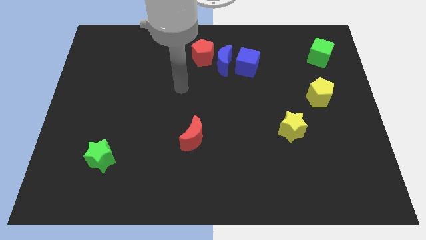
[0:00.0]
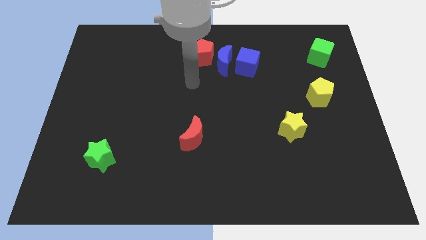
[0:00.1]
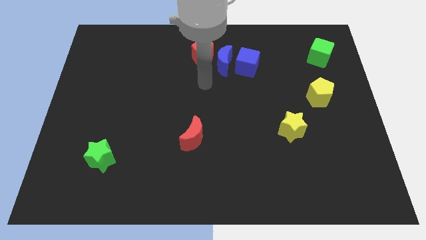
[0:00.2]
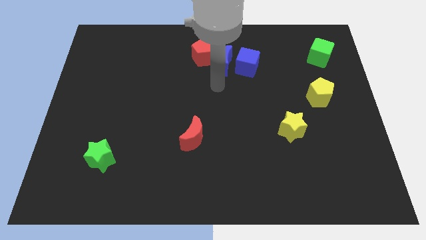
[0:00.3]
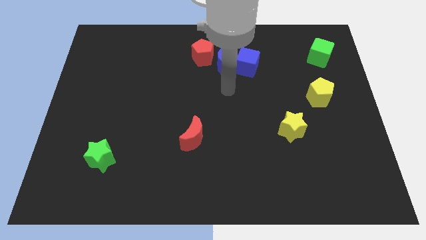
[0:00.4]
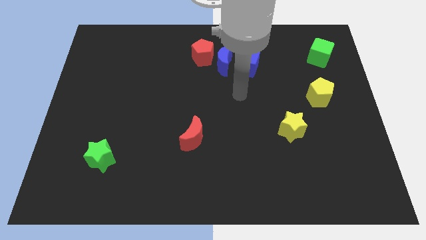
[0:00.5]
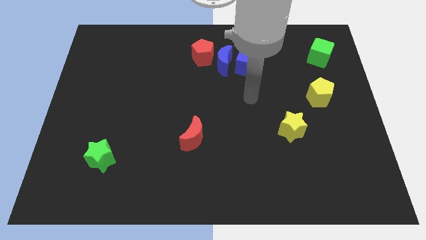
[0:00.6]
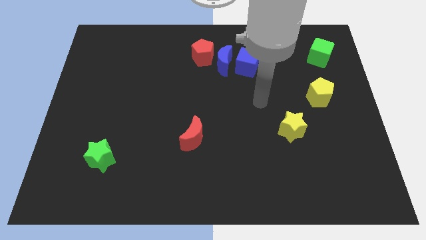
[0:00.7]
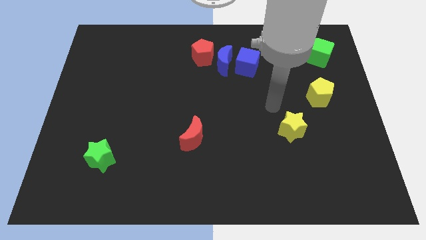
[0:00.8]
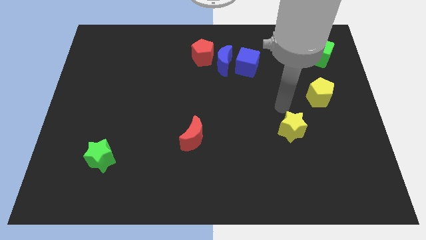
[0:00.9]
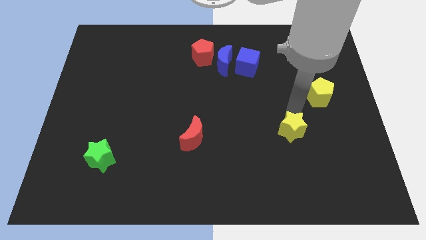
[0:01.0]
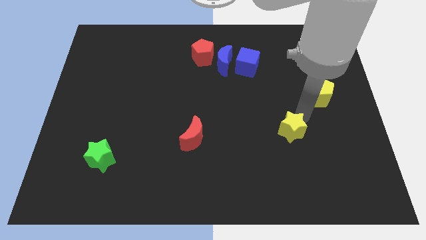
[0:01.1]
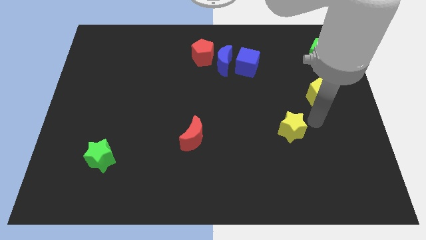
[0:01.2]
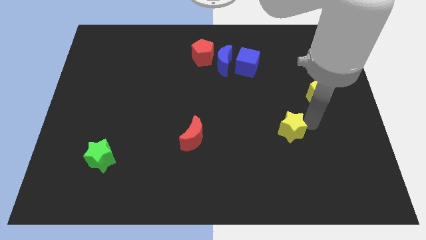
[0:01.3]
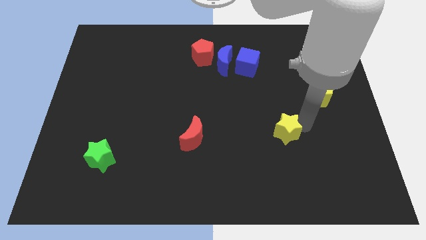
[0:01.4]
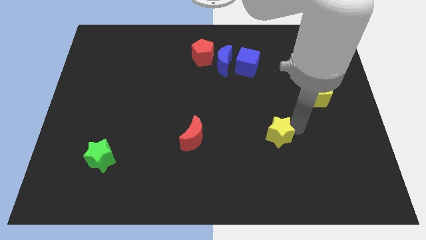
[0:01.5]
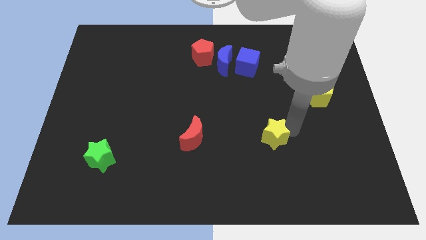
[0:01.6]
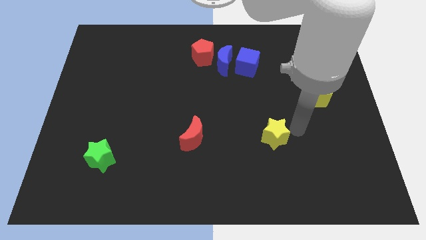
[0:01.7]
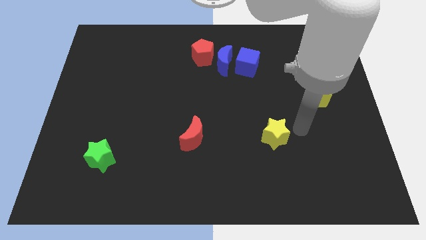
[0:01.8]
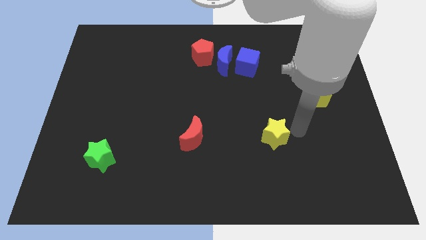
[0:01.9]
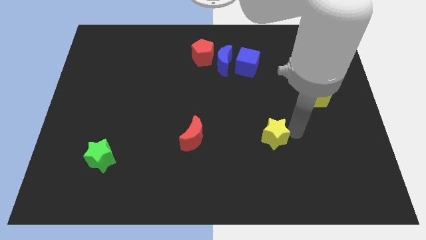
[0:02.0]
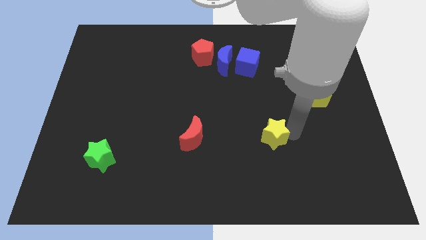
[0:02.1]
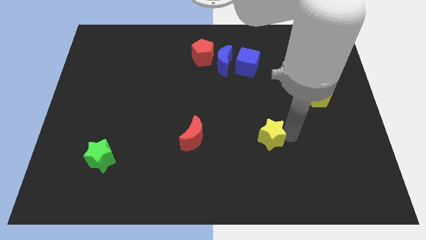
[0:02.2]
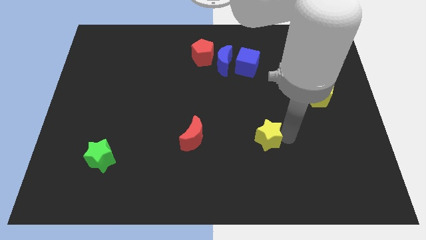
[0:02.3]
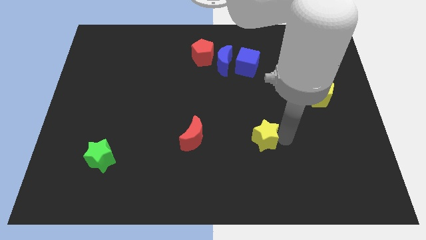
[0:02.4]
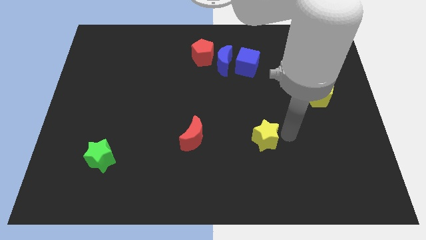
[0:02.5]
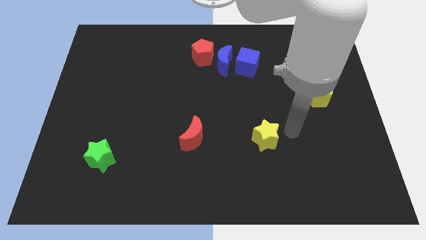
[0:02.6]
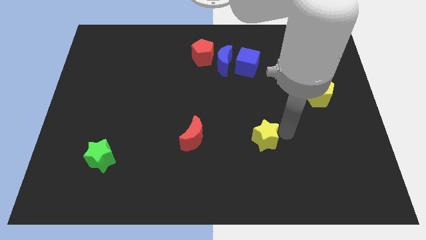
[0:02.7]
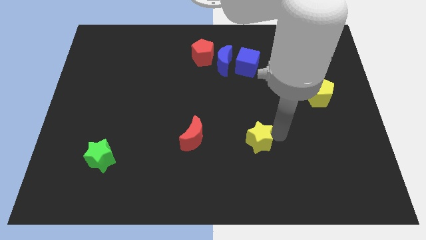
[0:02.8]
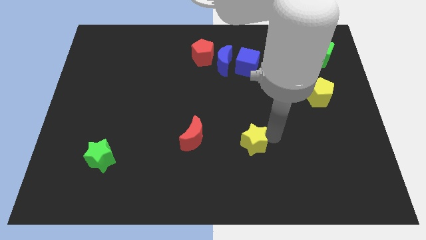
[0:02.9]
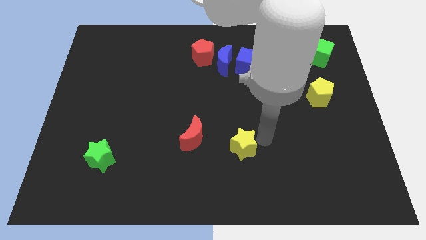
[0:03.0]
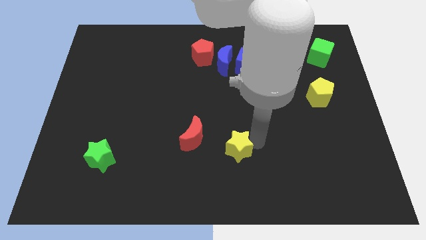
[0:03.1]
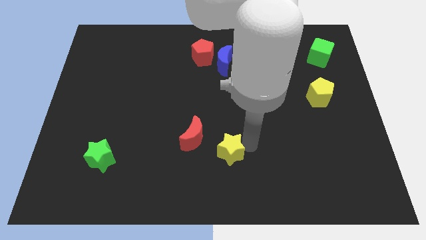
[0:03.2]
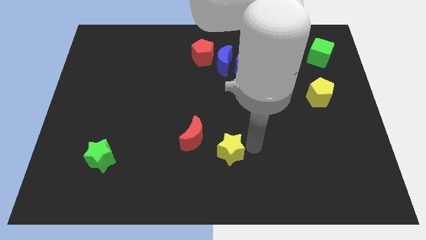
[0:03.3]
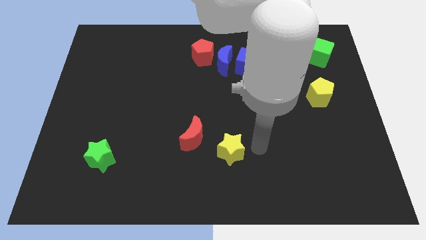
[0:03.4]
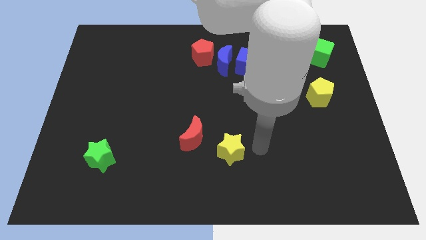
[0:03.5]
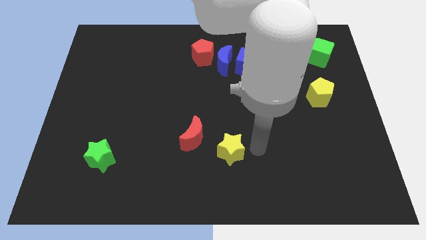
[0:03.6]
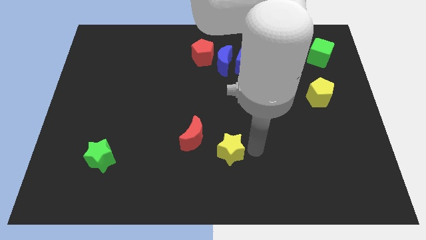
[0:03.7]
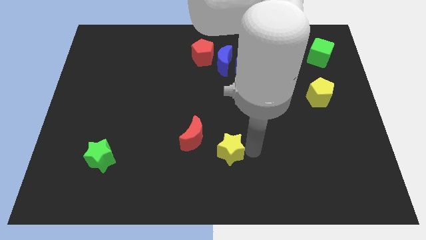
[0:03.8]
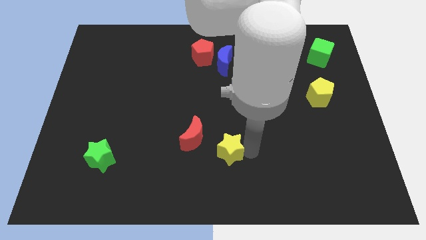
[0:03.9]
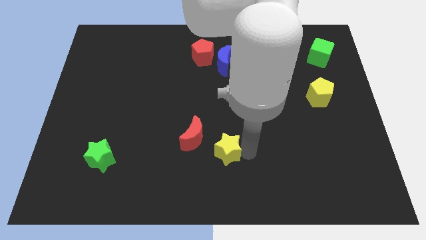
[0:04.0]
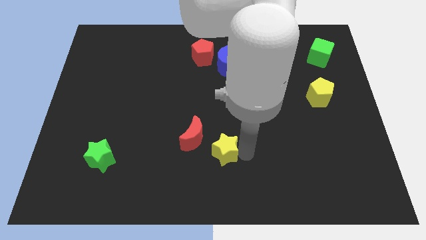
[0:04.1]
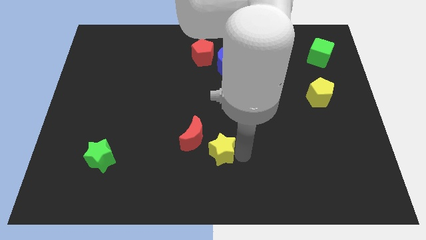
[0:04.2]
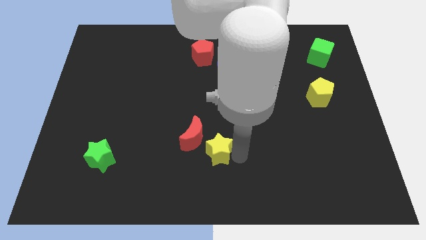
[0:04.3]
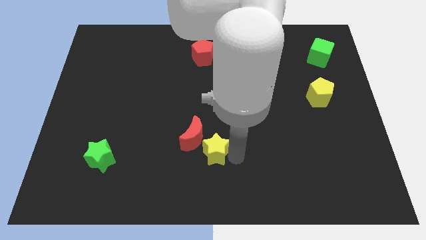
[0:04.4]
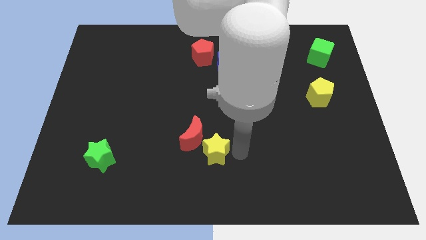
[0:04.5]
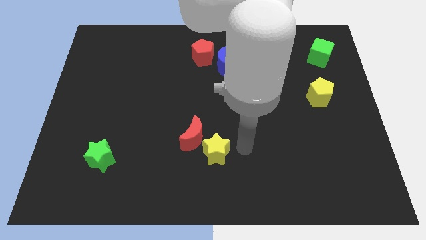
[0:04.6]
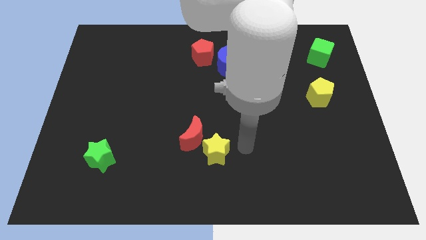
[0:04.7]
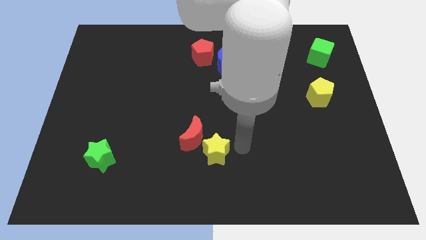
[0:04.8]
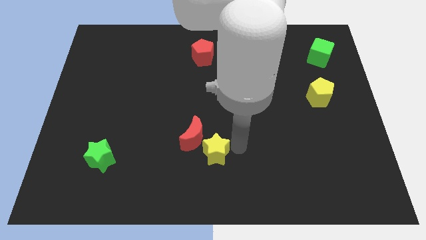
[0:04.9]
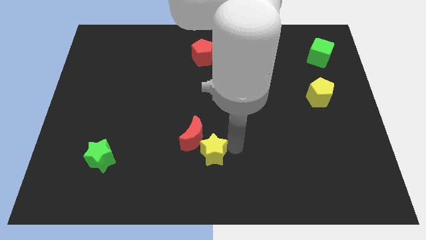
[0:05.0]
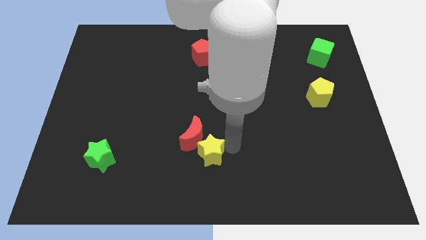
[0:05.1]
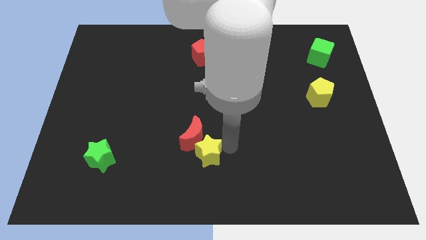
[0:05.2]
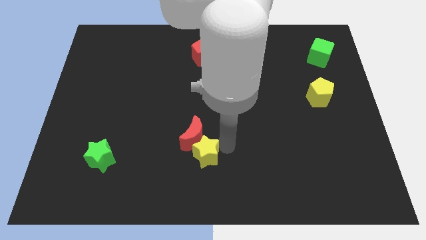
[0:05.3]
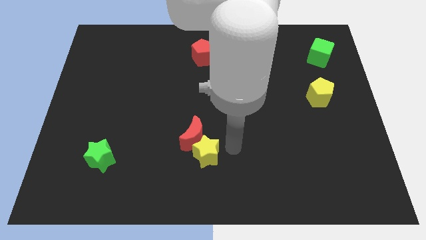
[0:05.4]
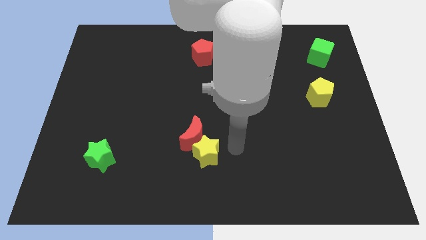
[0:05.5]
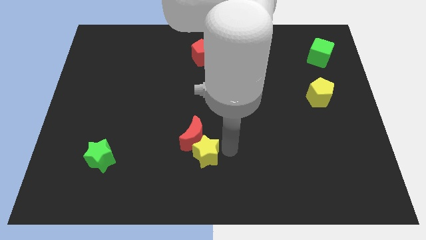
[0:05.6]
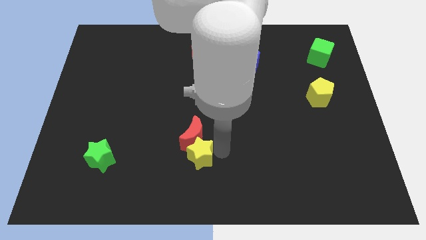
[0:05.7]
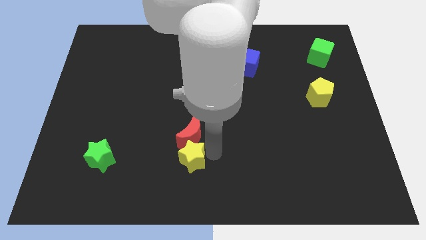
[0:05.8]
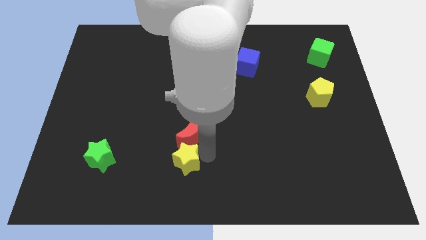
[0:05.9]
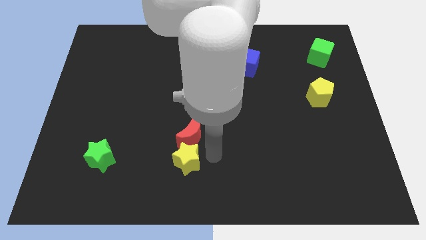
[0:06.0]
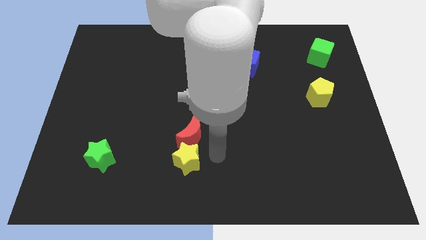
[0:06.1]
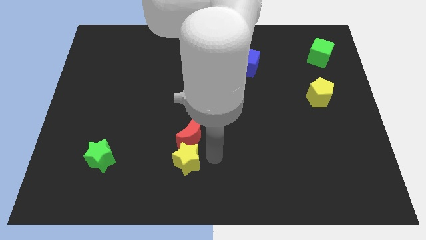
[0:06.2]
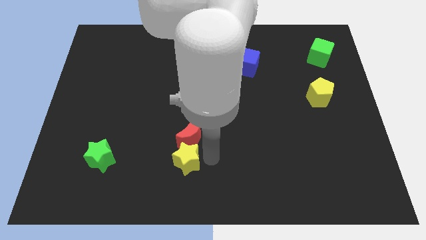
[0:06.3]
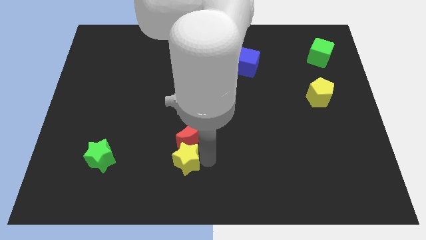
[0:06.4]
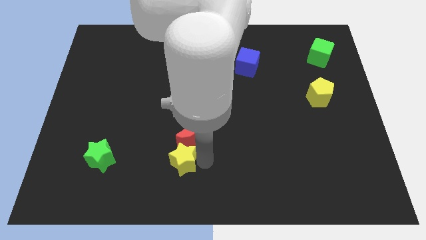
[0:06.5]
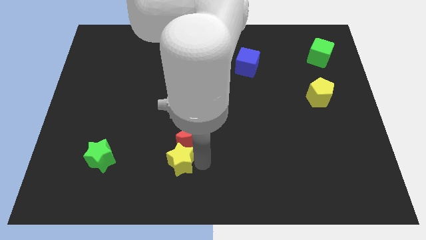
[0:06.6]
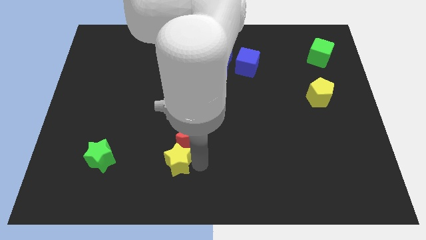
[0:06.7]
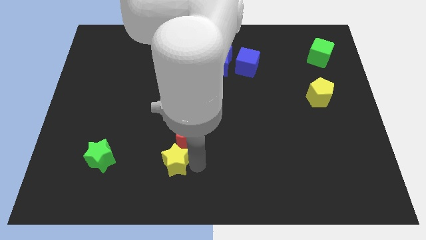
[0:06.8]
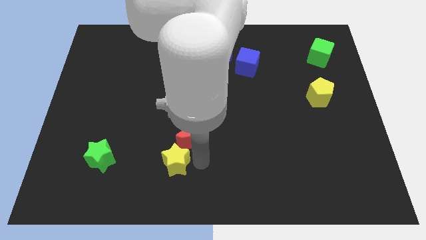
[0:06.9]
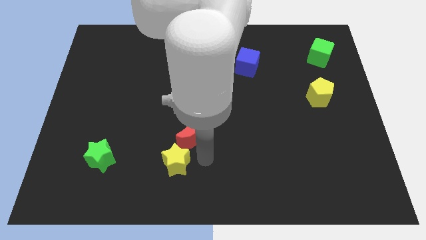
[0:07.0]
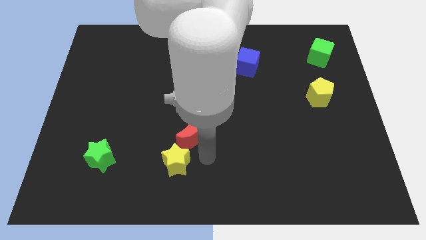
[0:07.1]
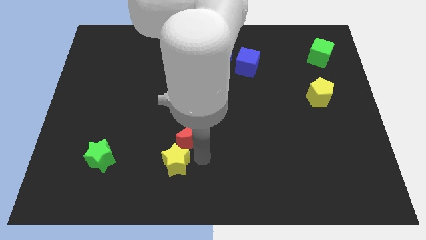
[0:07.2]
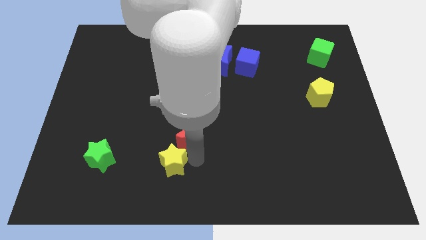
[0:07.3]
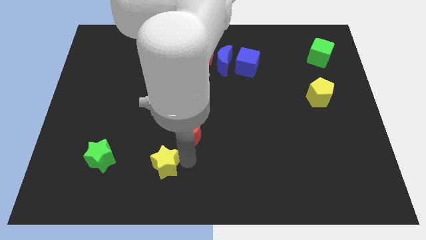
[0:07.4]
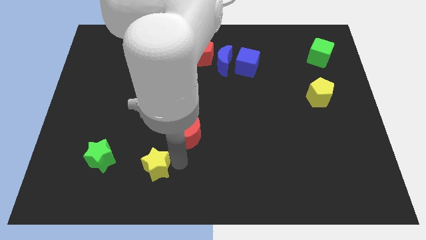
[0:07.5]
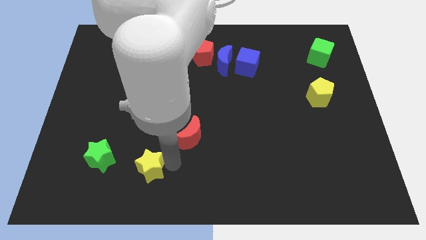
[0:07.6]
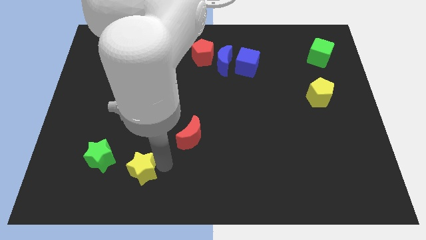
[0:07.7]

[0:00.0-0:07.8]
slide the yellow star to the bottom right side of the green star
